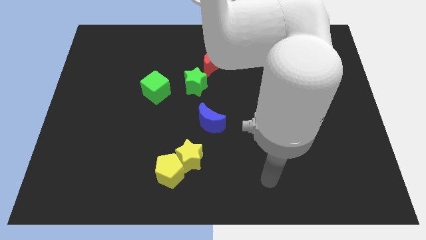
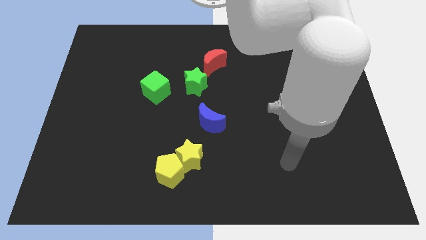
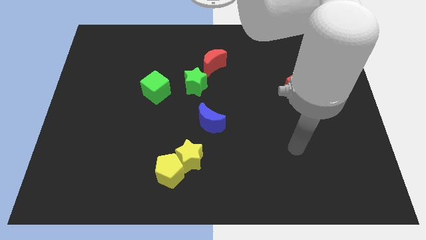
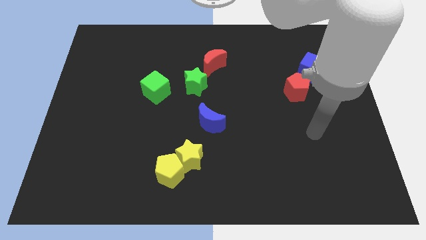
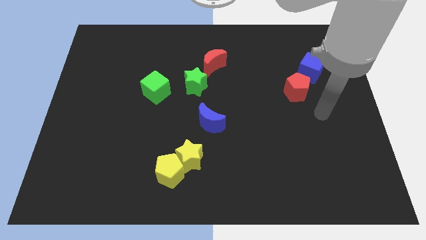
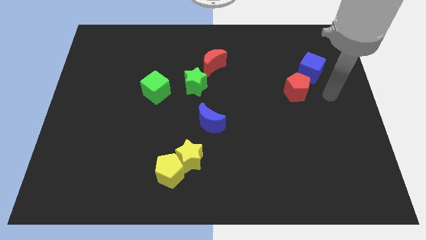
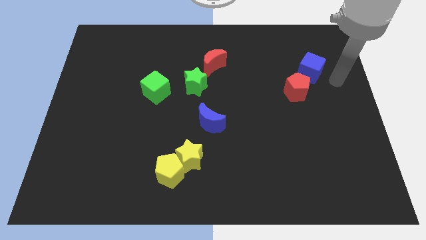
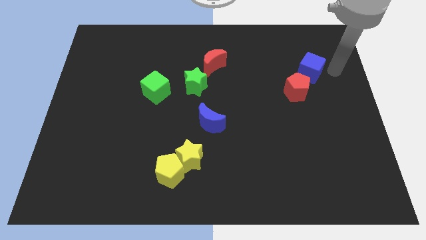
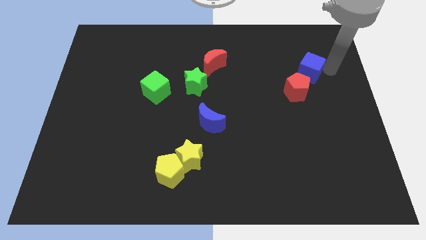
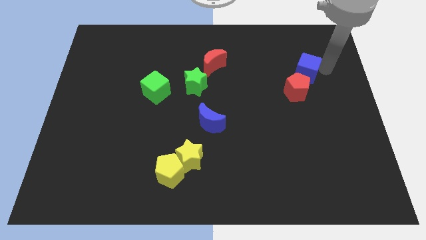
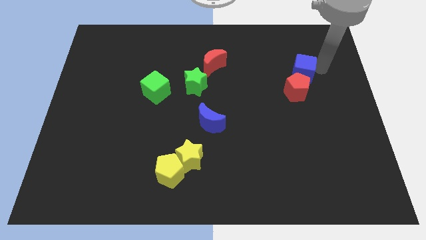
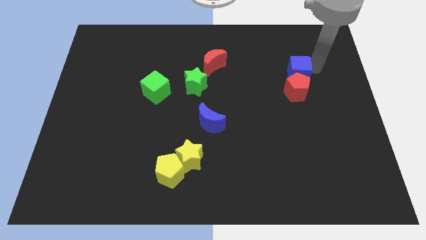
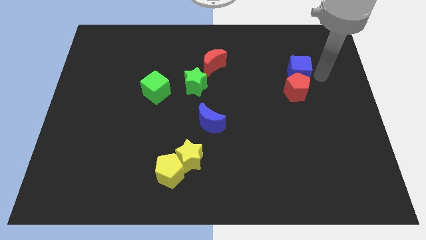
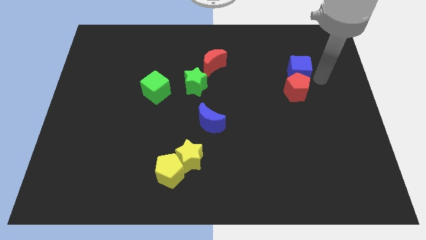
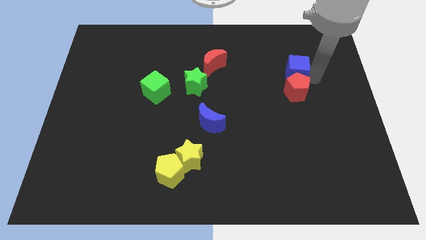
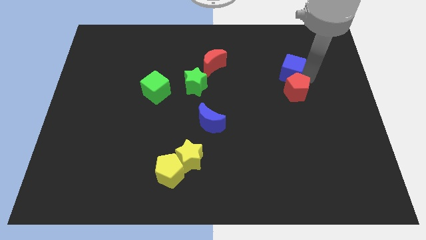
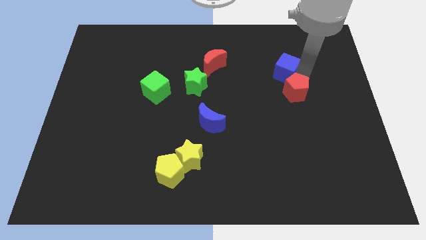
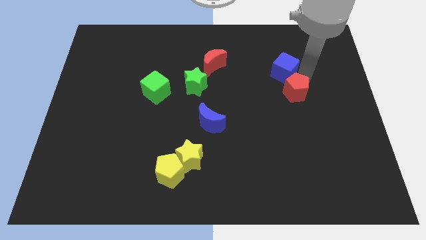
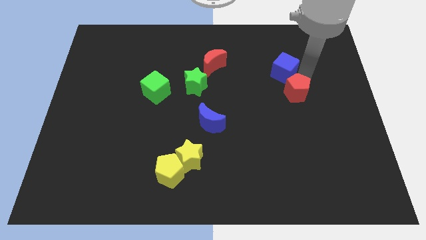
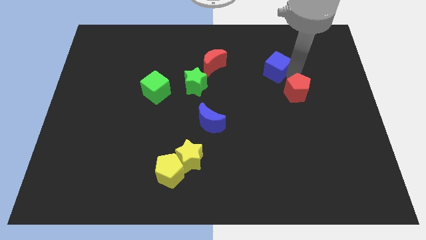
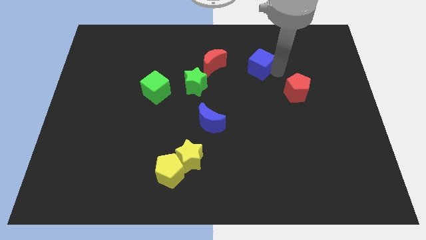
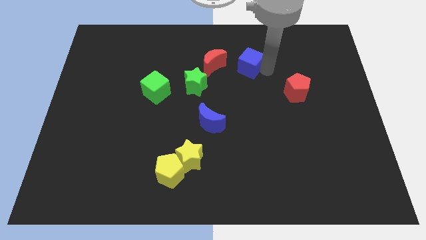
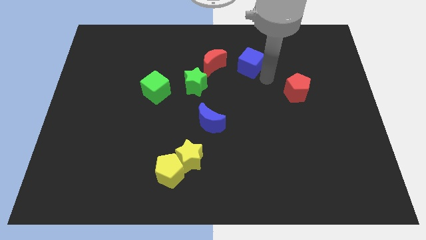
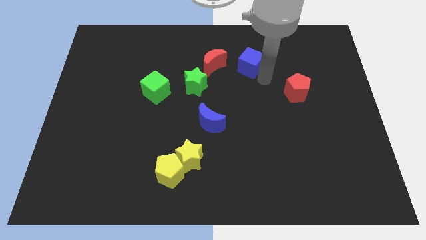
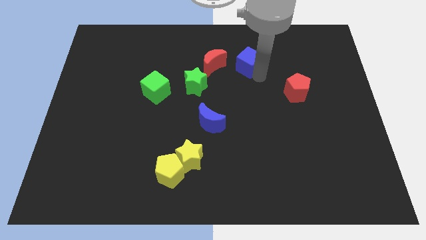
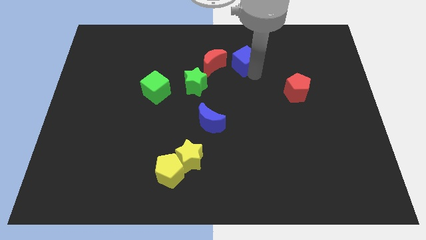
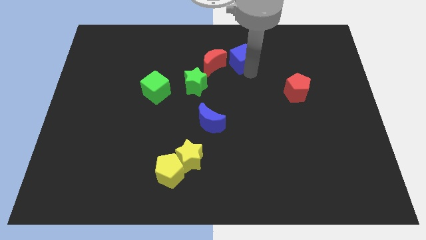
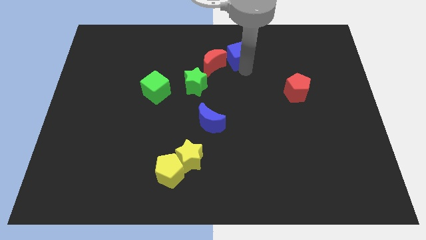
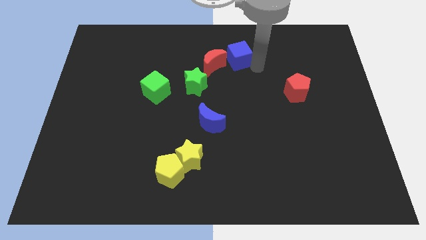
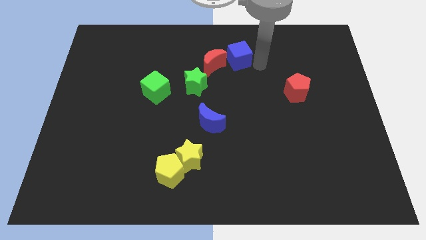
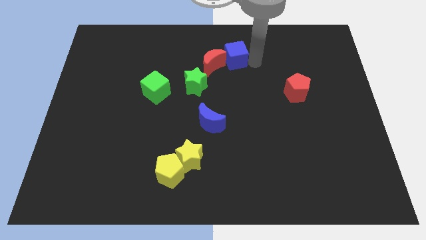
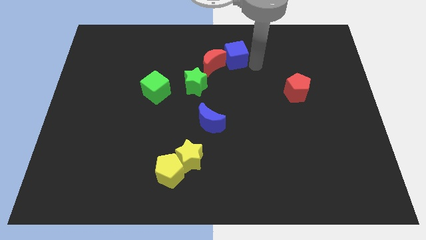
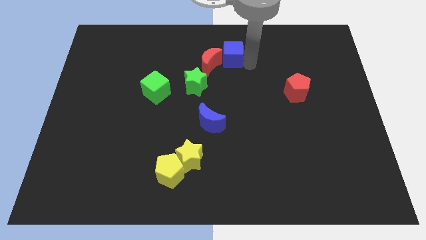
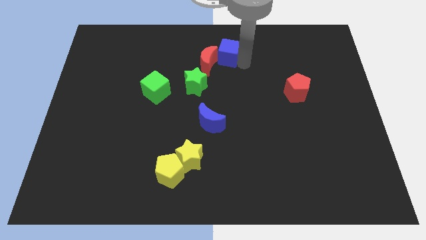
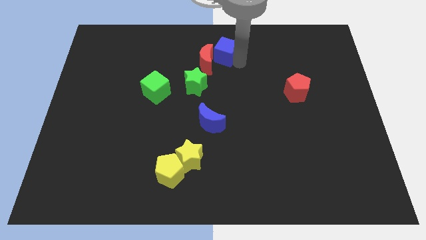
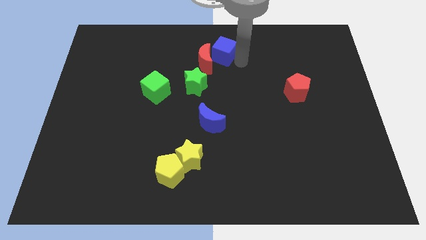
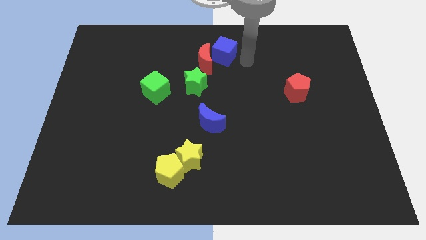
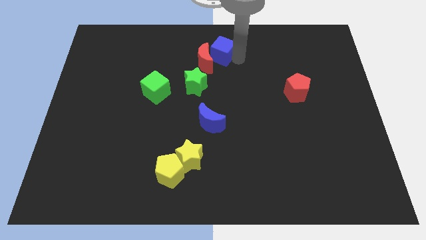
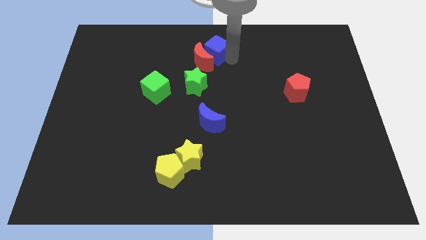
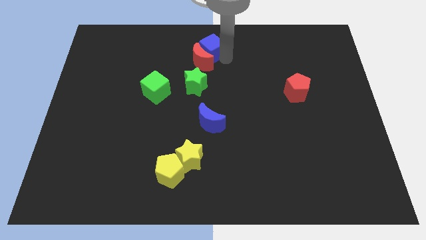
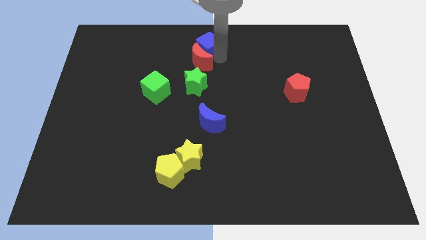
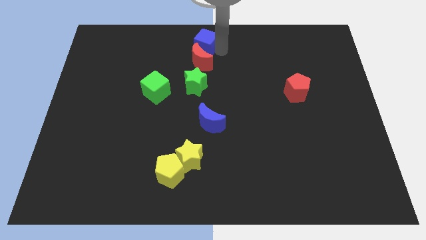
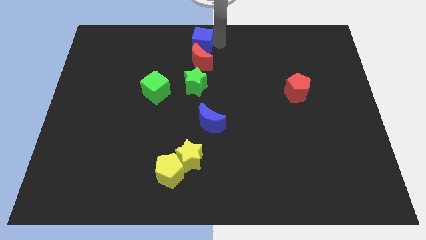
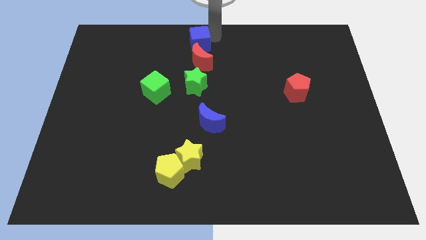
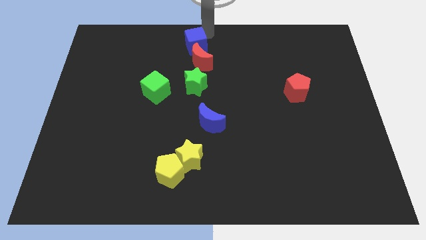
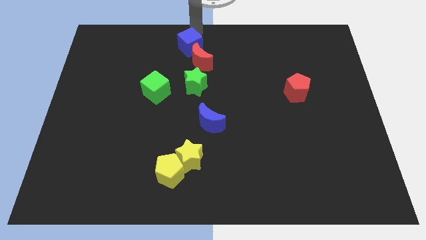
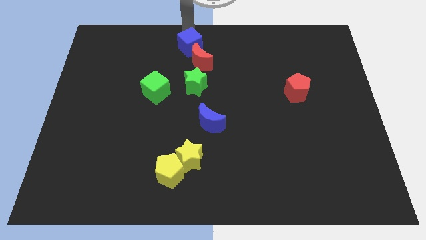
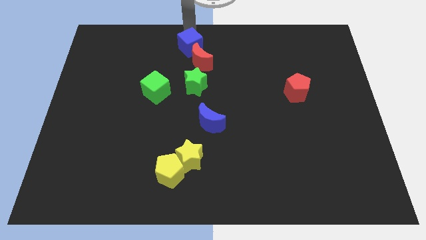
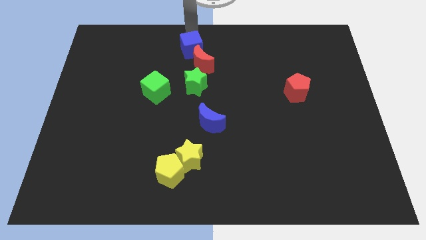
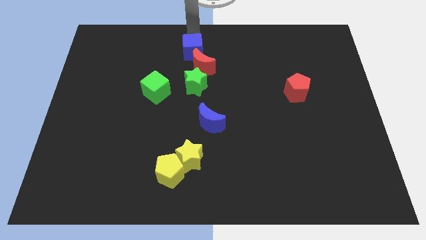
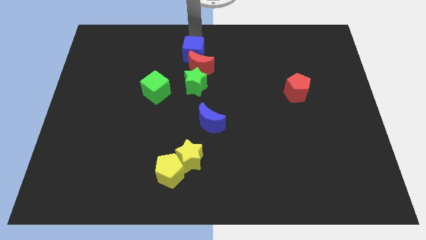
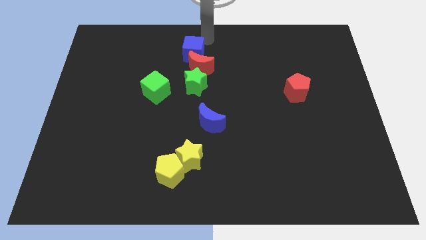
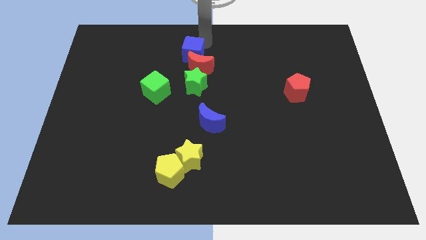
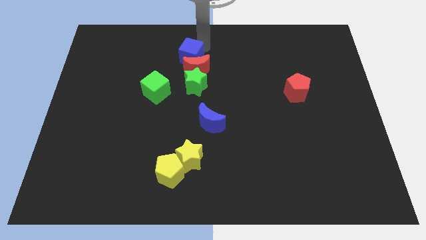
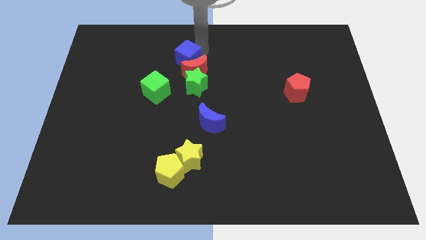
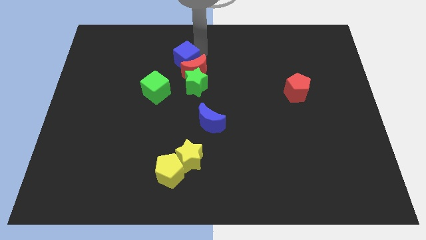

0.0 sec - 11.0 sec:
push the blue cube to the top left side of the green star

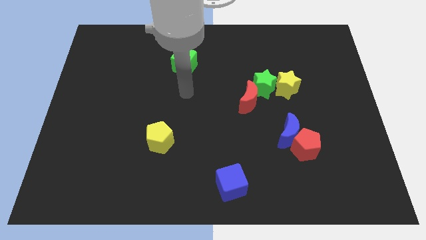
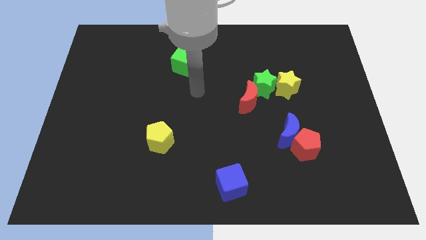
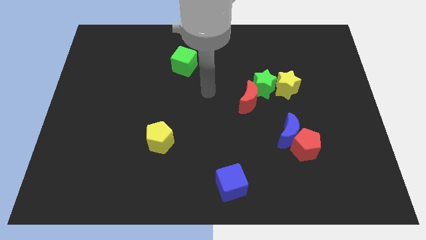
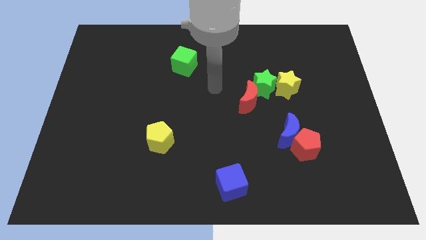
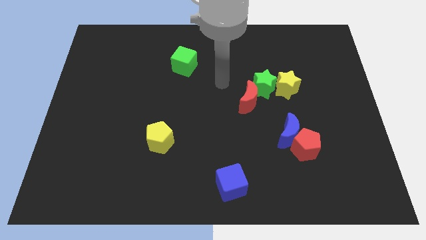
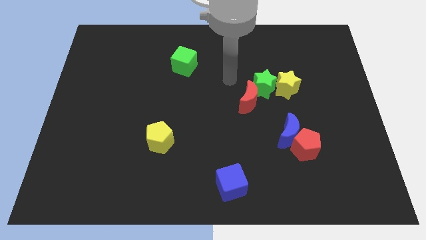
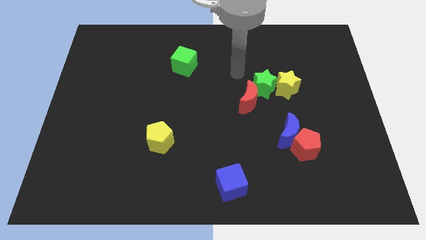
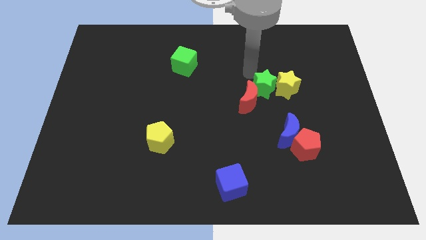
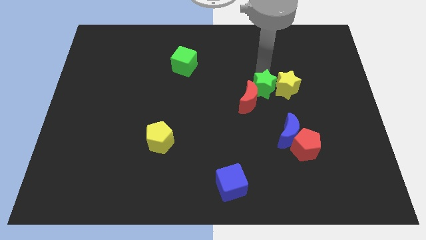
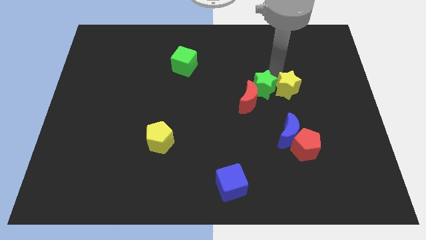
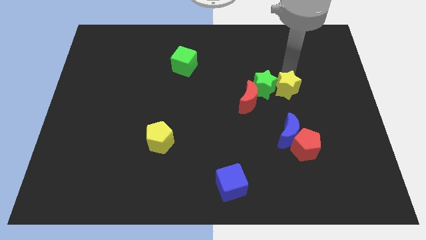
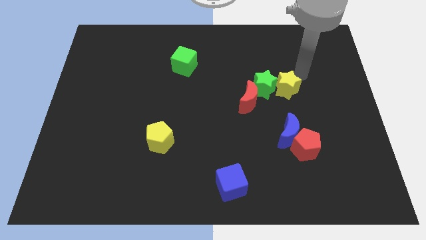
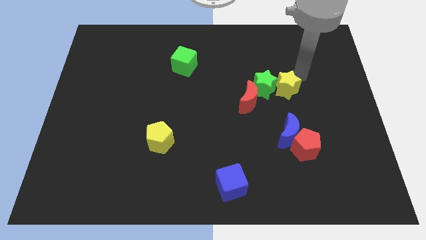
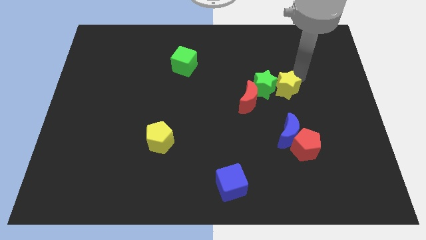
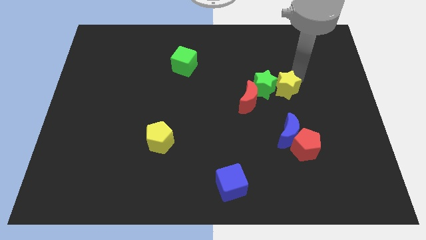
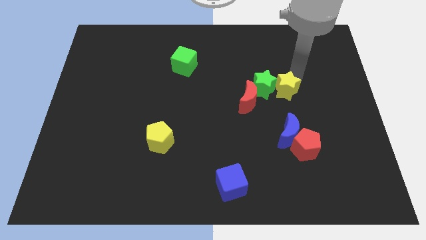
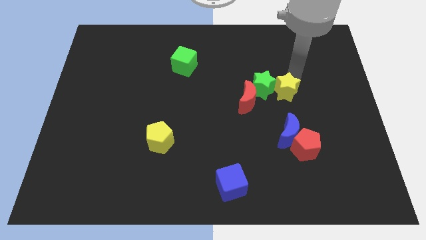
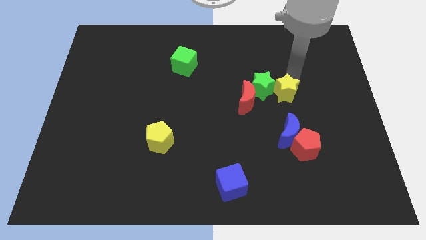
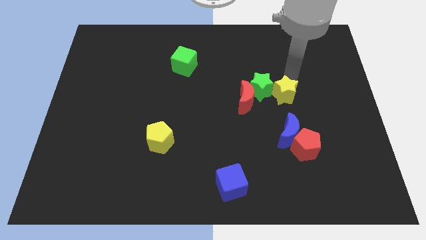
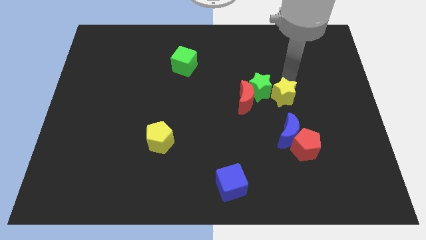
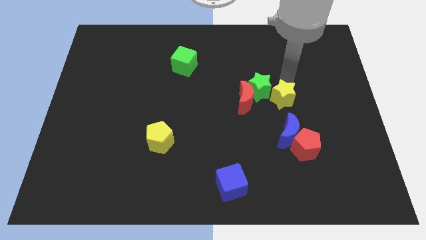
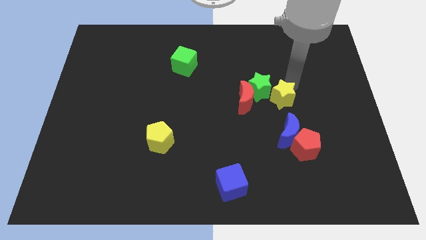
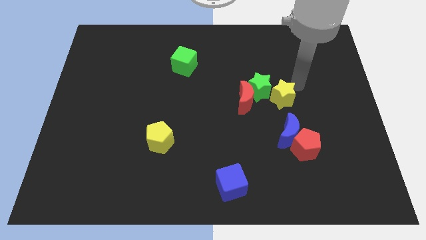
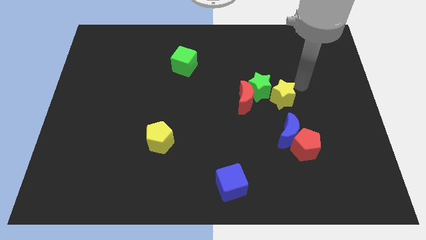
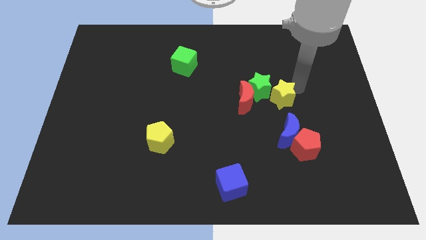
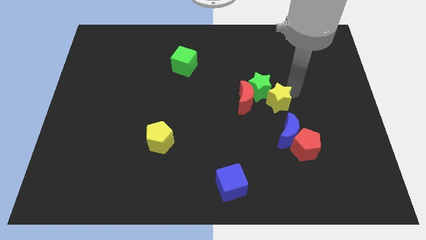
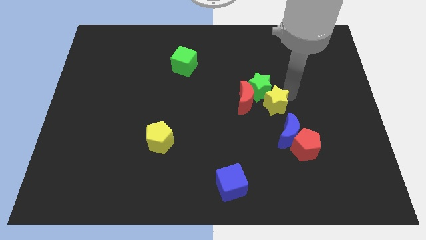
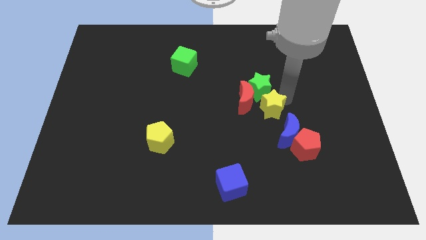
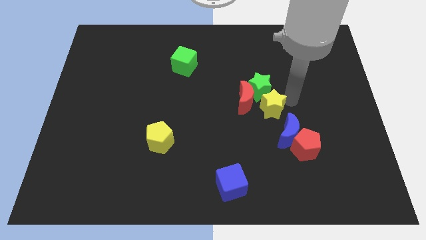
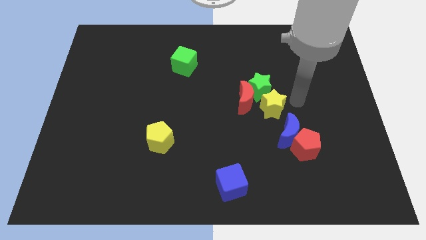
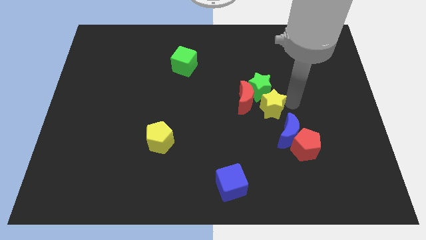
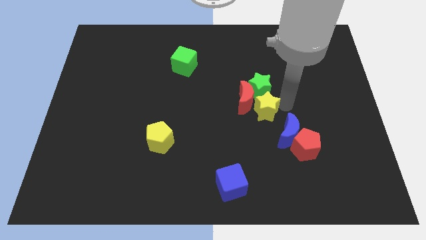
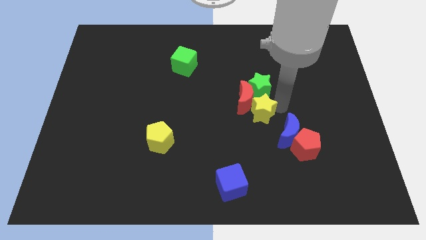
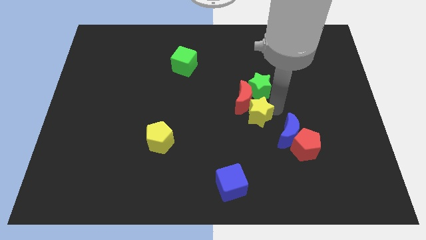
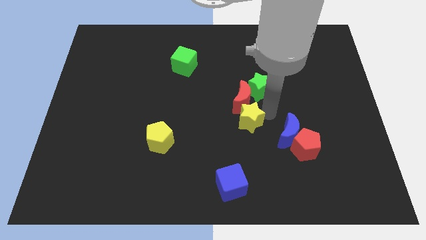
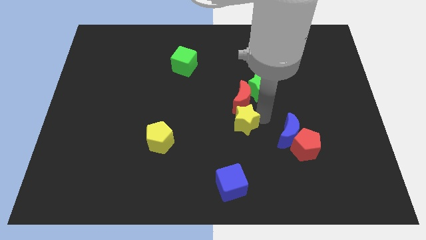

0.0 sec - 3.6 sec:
move the yellow star to the bottom left of the red moon
